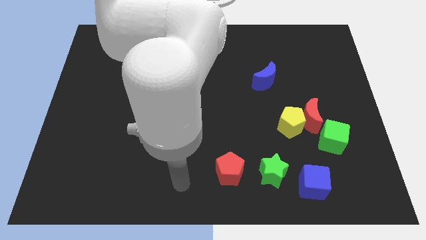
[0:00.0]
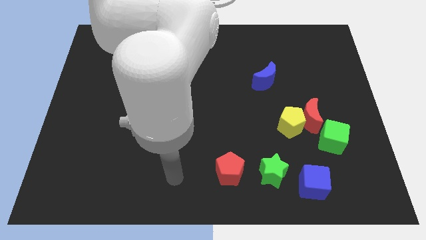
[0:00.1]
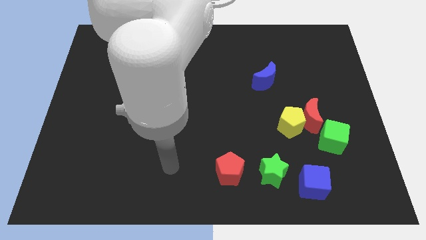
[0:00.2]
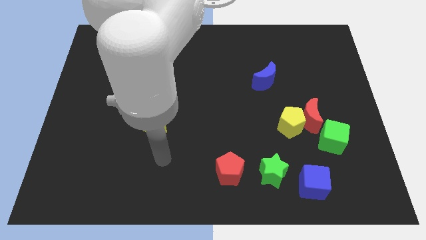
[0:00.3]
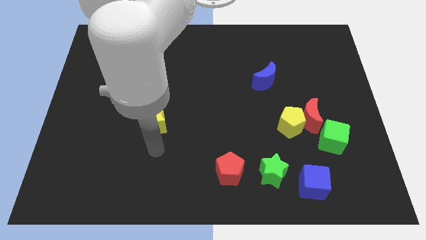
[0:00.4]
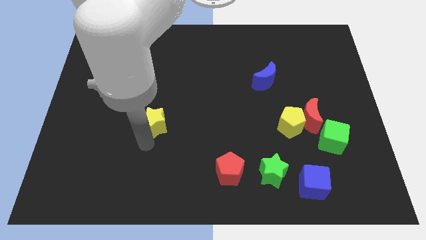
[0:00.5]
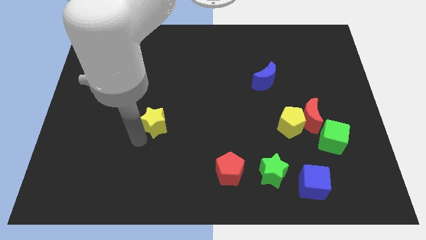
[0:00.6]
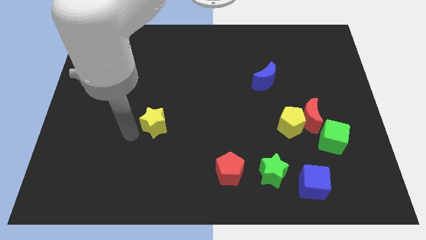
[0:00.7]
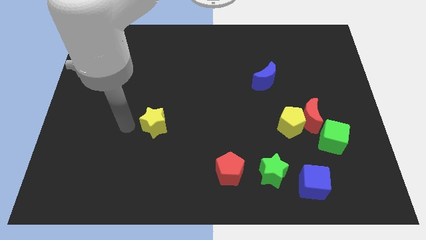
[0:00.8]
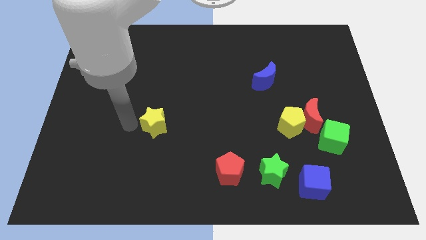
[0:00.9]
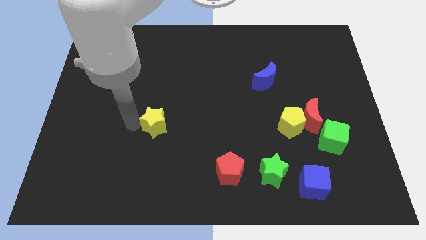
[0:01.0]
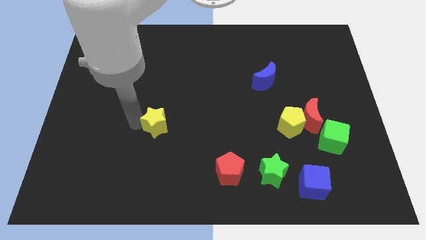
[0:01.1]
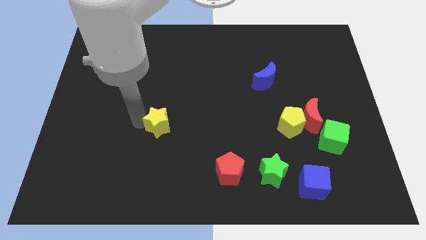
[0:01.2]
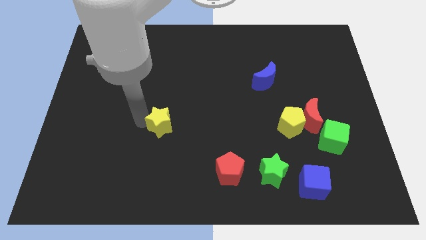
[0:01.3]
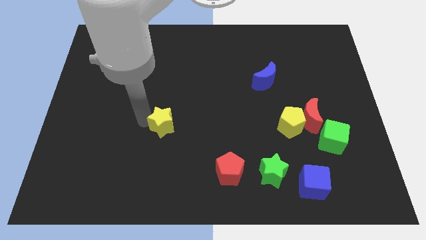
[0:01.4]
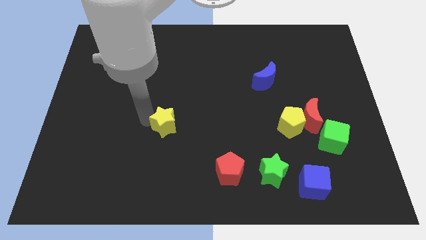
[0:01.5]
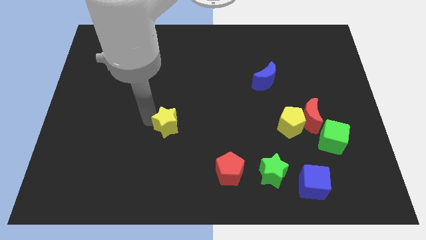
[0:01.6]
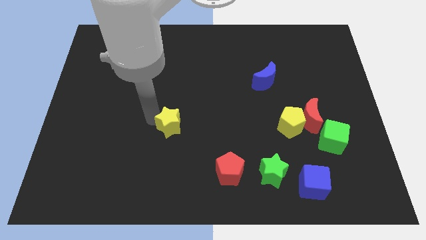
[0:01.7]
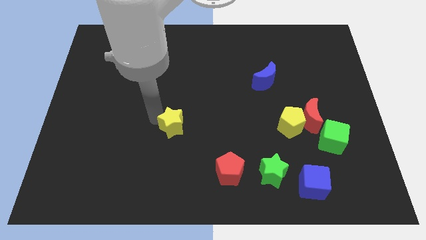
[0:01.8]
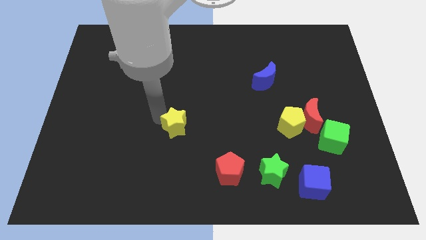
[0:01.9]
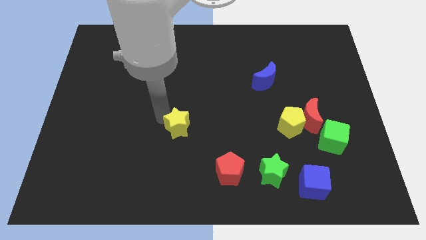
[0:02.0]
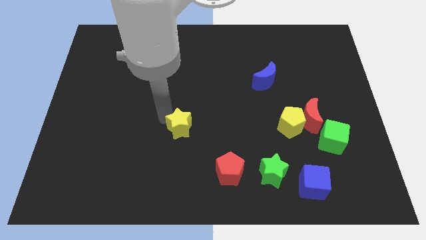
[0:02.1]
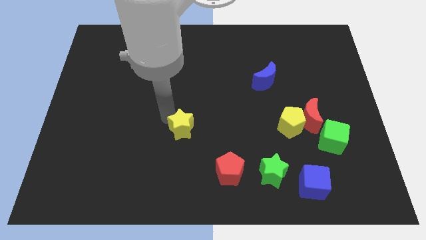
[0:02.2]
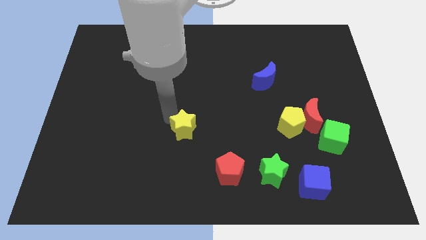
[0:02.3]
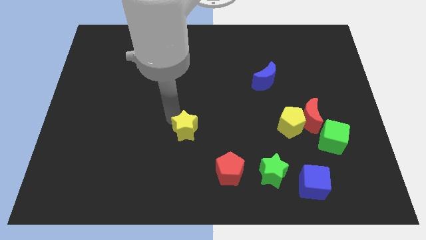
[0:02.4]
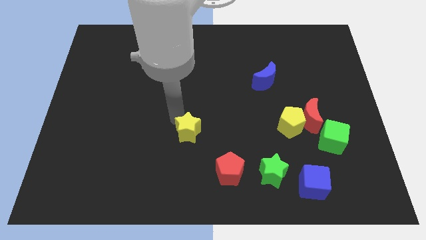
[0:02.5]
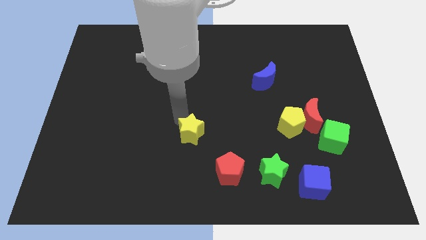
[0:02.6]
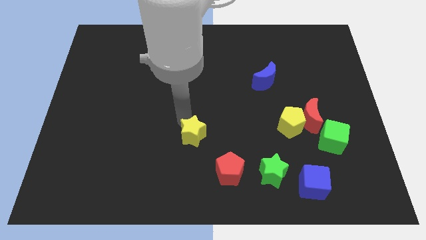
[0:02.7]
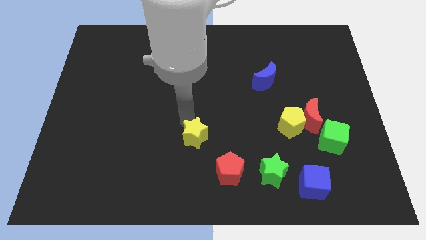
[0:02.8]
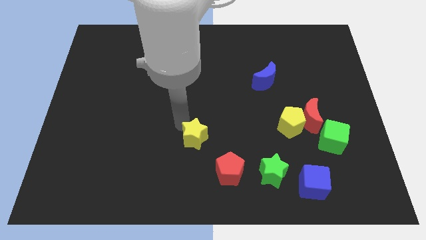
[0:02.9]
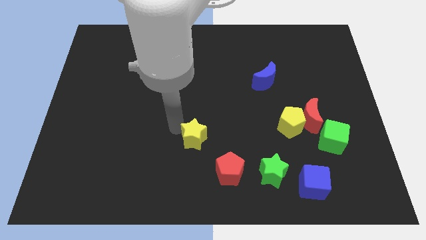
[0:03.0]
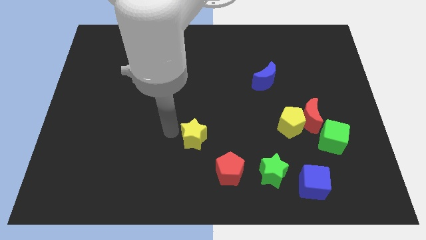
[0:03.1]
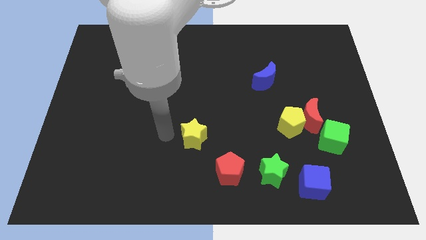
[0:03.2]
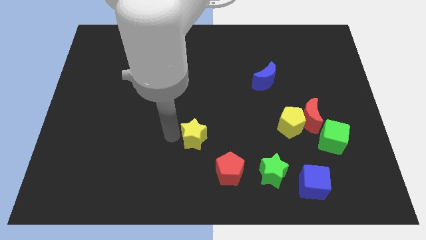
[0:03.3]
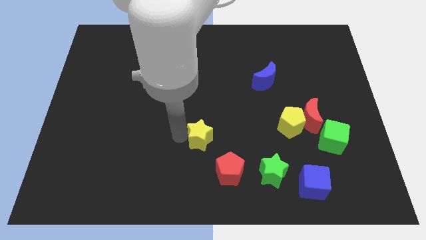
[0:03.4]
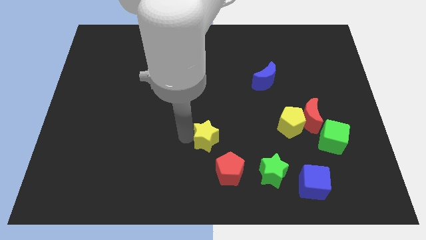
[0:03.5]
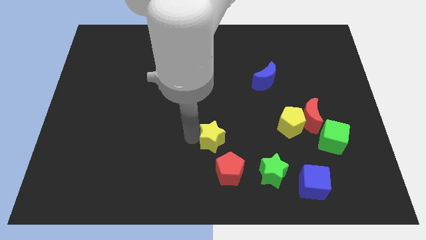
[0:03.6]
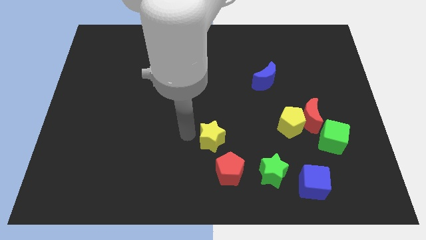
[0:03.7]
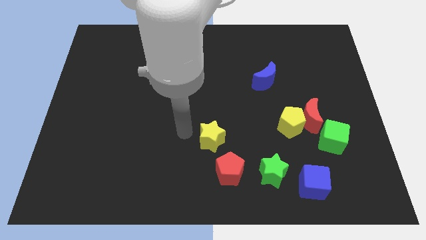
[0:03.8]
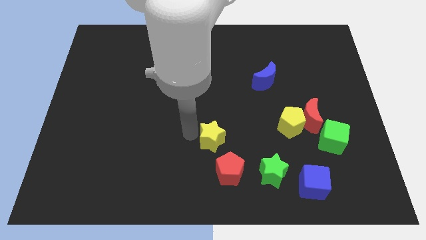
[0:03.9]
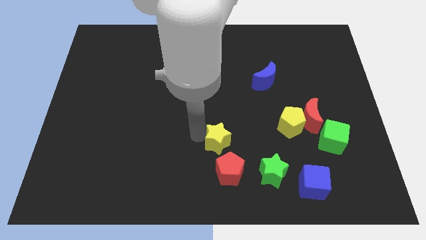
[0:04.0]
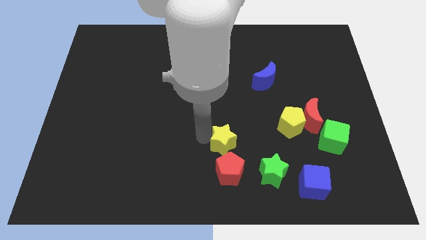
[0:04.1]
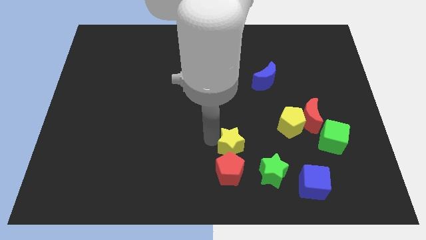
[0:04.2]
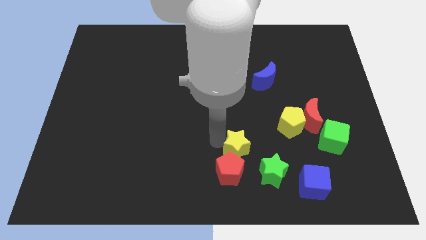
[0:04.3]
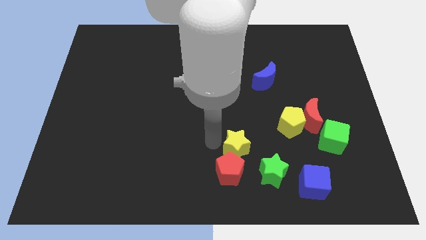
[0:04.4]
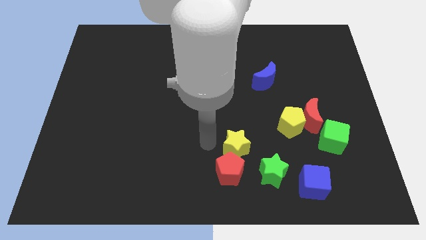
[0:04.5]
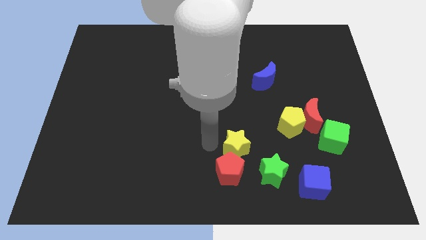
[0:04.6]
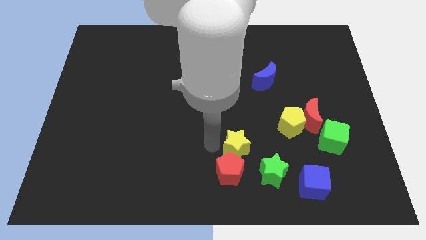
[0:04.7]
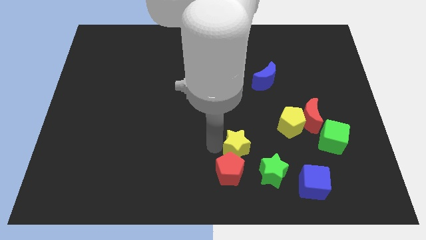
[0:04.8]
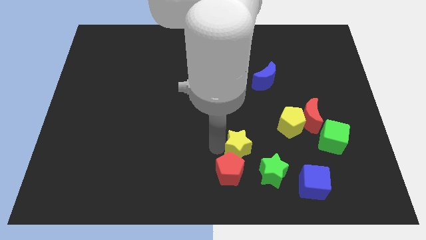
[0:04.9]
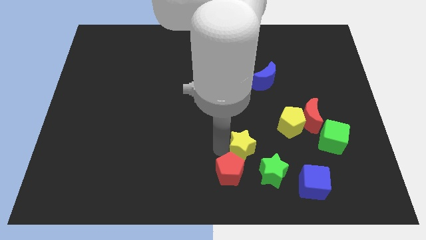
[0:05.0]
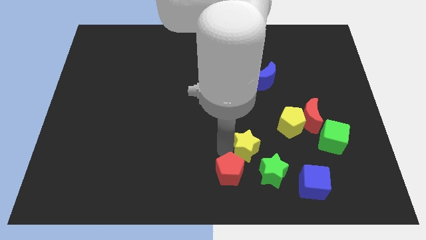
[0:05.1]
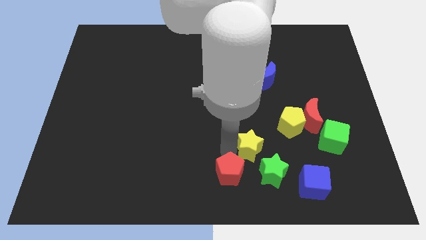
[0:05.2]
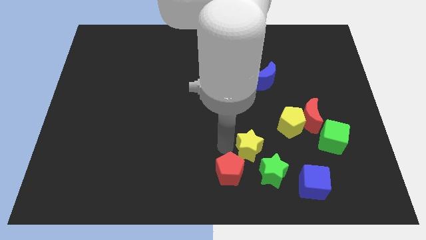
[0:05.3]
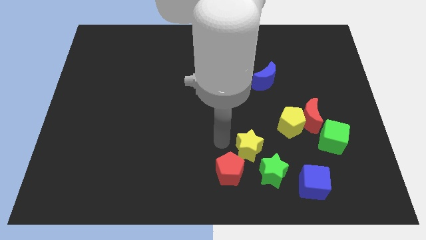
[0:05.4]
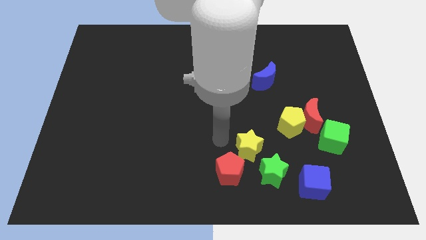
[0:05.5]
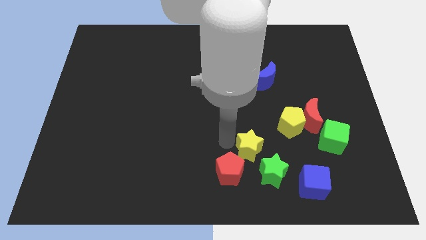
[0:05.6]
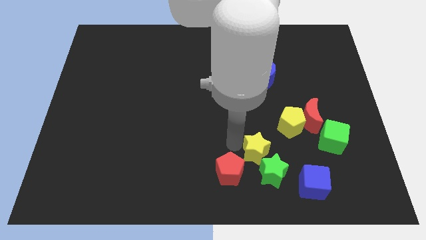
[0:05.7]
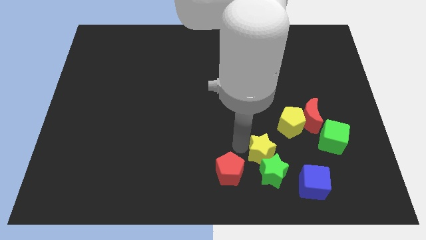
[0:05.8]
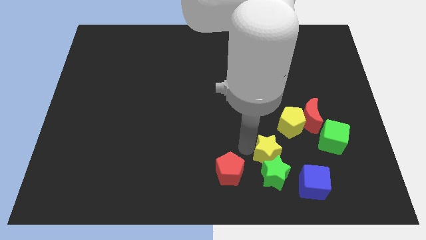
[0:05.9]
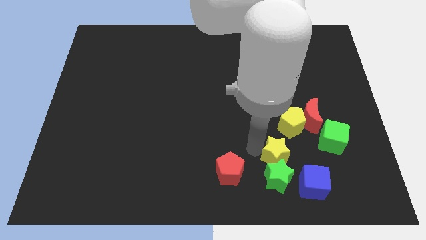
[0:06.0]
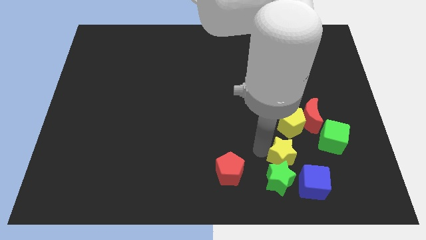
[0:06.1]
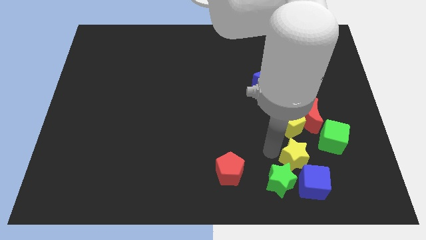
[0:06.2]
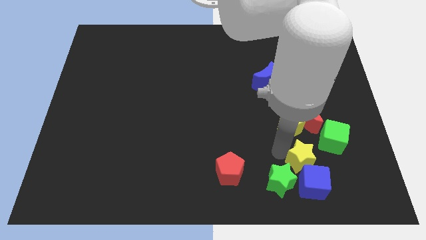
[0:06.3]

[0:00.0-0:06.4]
push the yellow star towards the blue cube

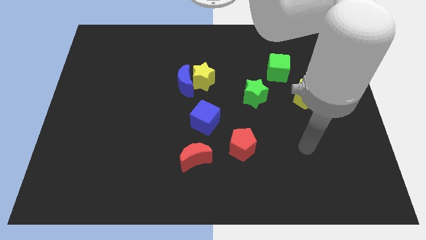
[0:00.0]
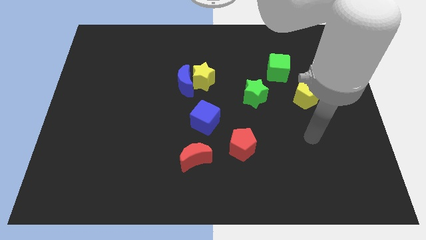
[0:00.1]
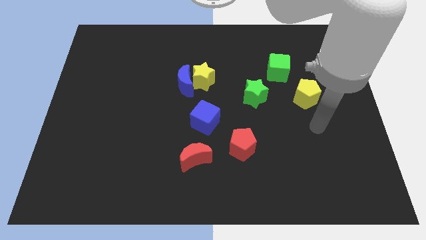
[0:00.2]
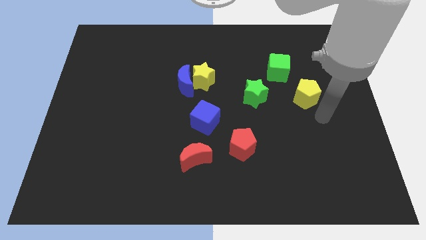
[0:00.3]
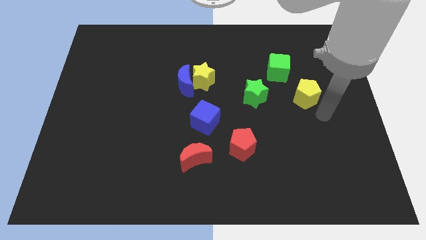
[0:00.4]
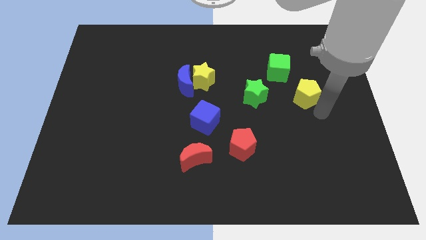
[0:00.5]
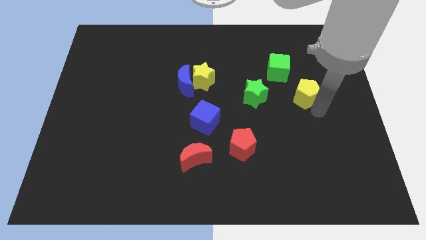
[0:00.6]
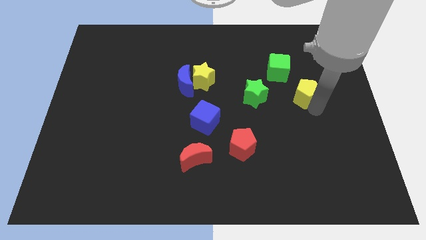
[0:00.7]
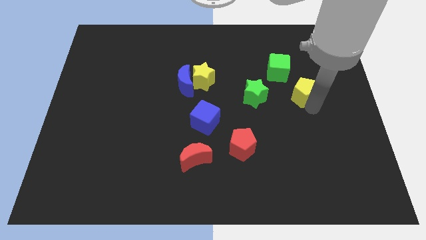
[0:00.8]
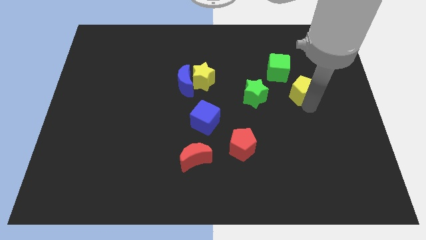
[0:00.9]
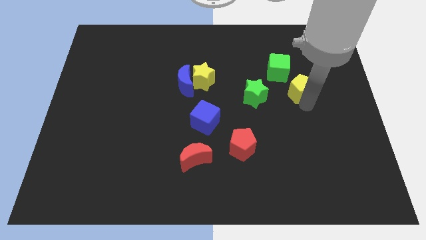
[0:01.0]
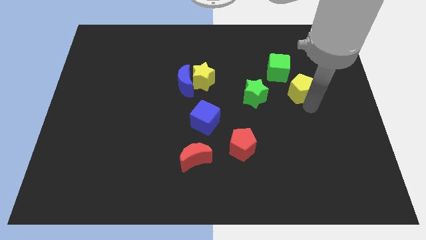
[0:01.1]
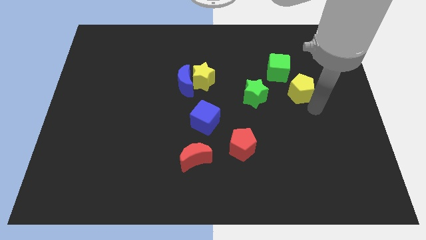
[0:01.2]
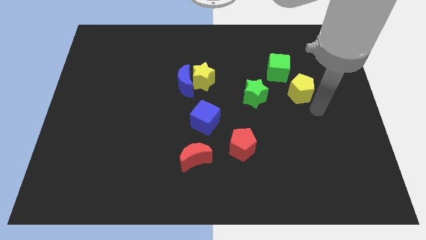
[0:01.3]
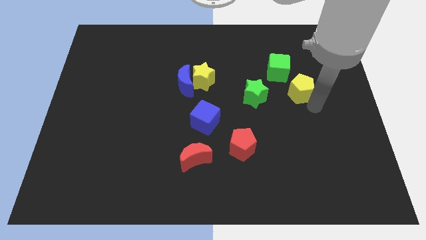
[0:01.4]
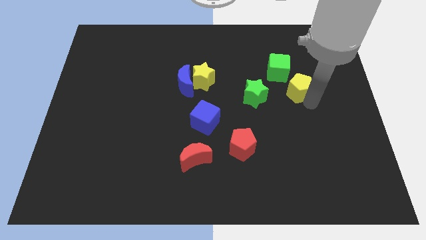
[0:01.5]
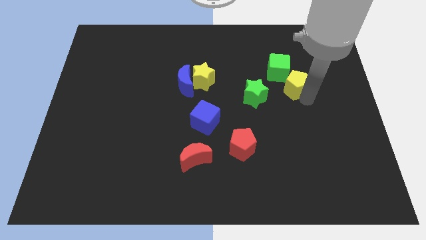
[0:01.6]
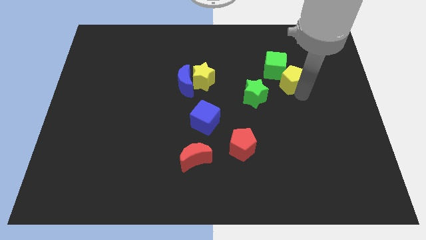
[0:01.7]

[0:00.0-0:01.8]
put the yellow pentagon to the green cube
